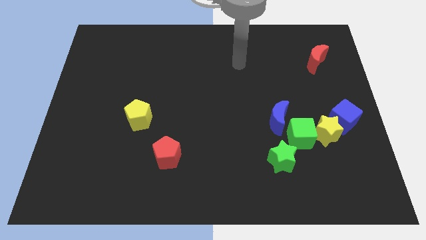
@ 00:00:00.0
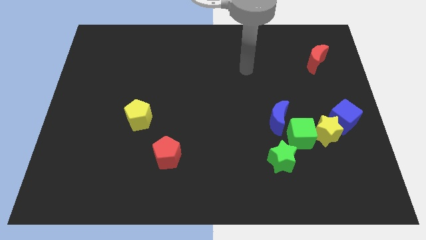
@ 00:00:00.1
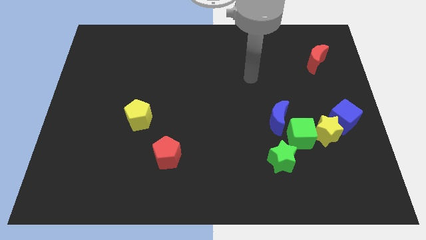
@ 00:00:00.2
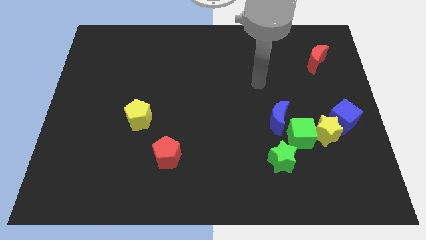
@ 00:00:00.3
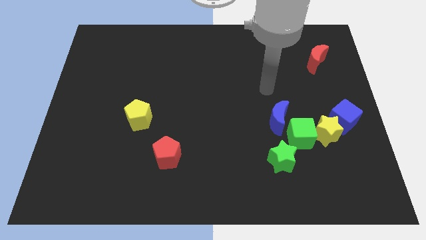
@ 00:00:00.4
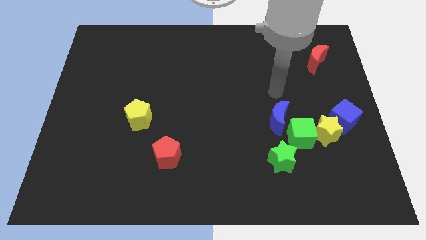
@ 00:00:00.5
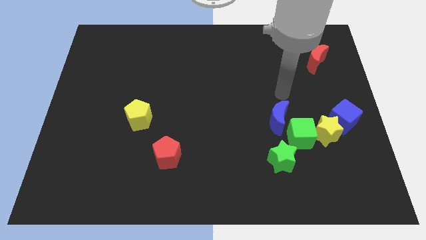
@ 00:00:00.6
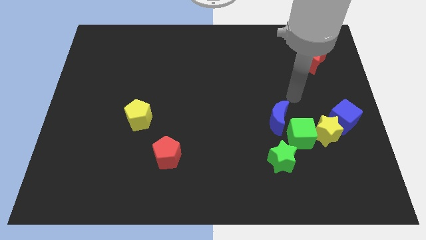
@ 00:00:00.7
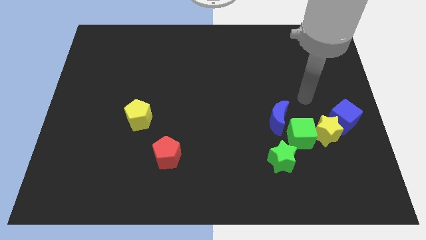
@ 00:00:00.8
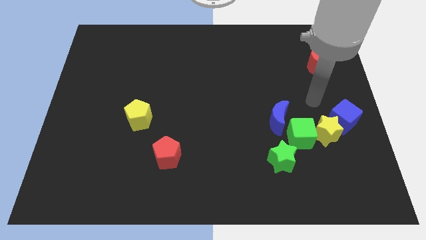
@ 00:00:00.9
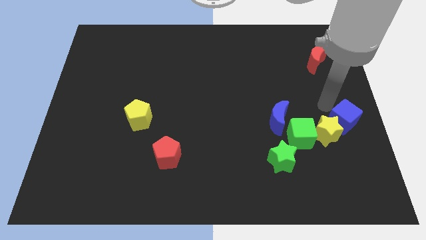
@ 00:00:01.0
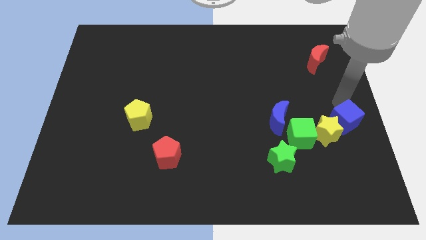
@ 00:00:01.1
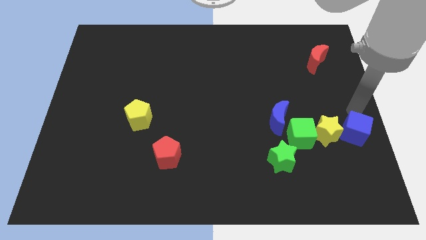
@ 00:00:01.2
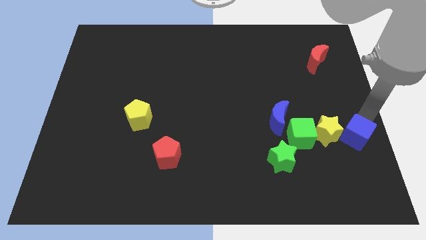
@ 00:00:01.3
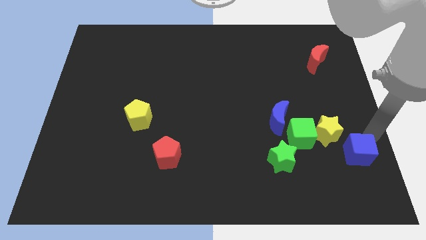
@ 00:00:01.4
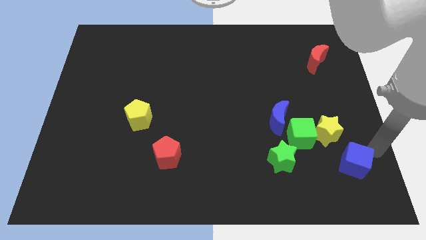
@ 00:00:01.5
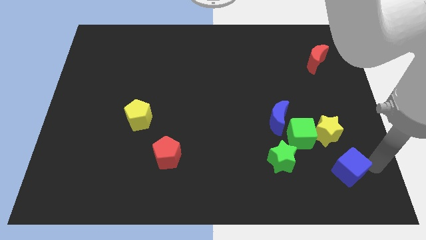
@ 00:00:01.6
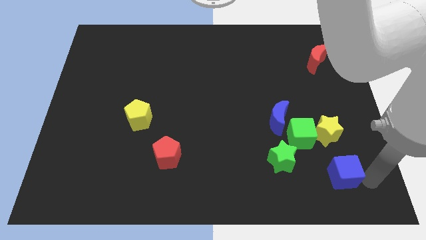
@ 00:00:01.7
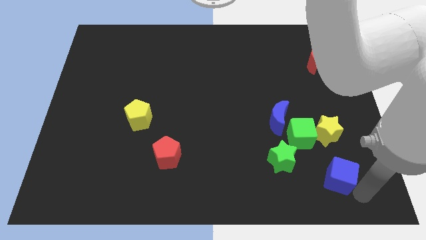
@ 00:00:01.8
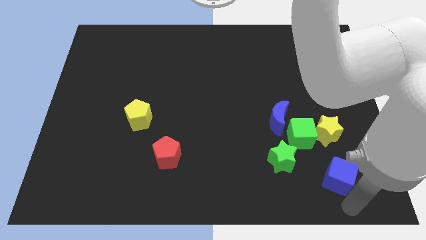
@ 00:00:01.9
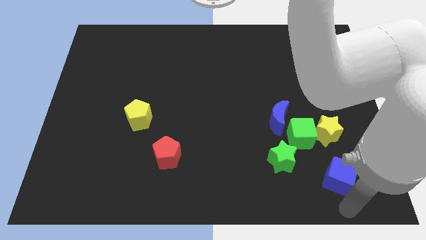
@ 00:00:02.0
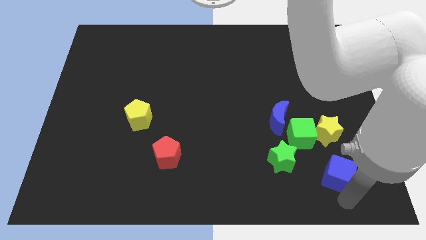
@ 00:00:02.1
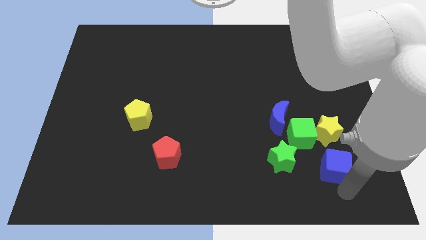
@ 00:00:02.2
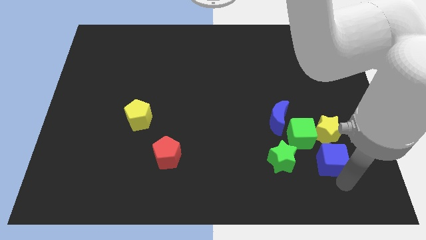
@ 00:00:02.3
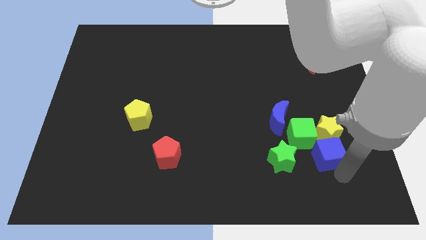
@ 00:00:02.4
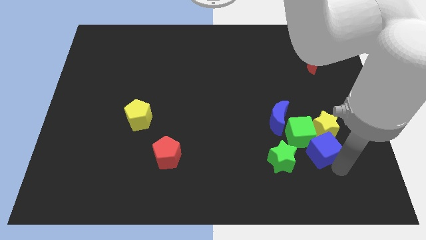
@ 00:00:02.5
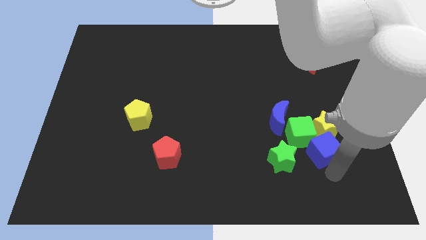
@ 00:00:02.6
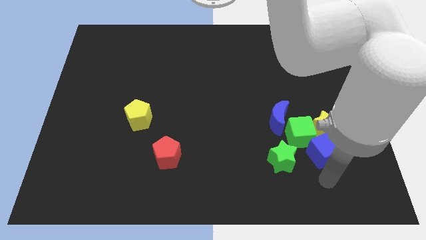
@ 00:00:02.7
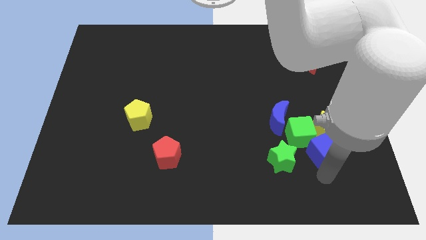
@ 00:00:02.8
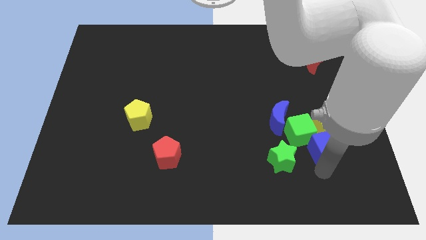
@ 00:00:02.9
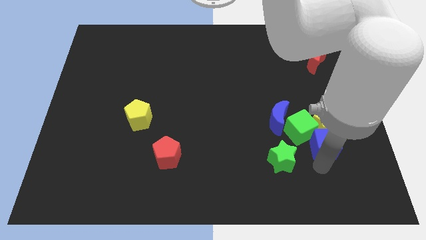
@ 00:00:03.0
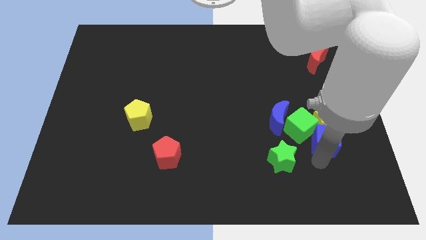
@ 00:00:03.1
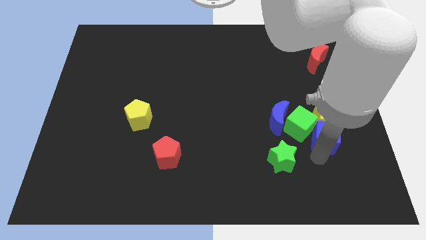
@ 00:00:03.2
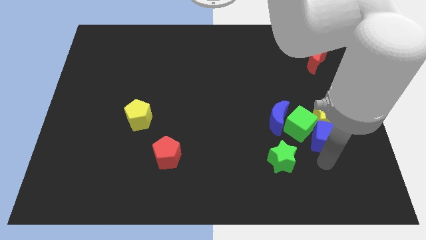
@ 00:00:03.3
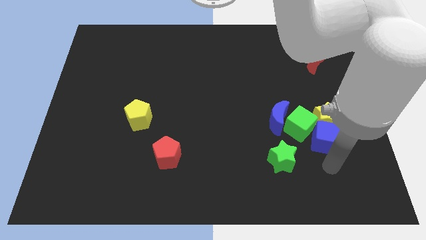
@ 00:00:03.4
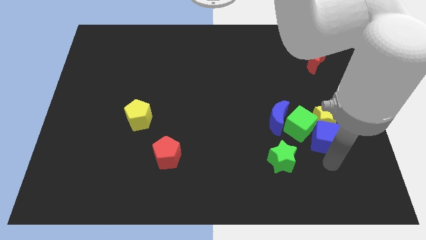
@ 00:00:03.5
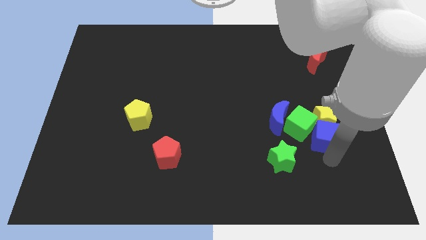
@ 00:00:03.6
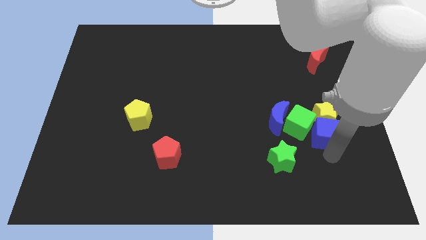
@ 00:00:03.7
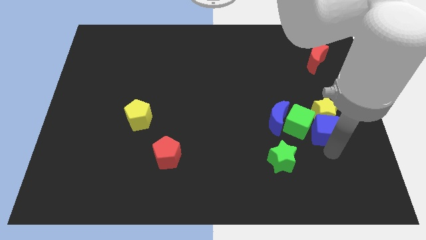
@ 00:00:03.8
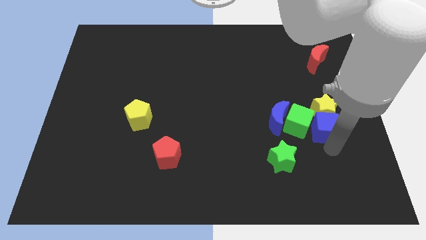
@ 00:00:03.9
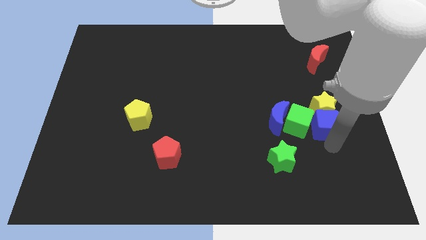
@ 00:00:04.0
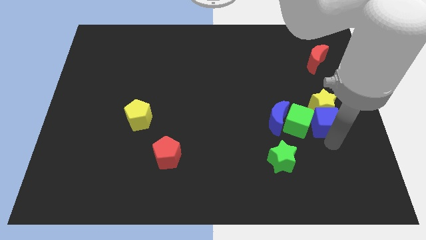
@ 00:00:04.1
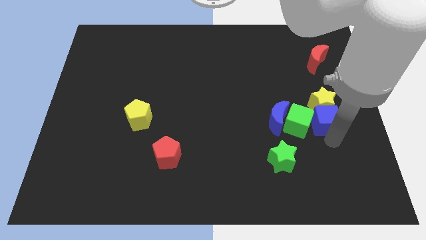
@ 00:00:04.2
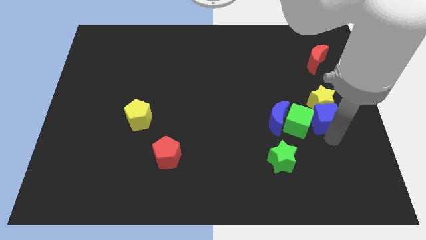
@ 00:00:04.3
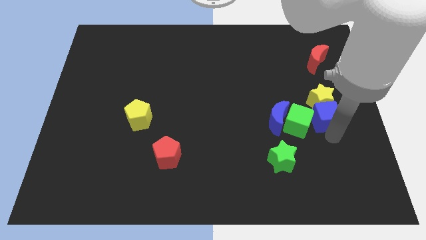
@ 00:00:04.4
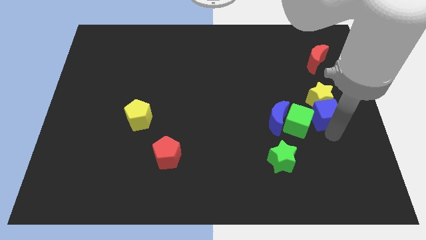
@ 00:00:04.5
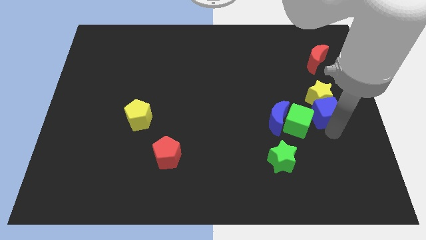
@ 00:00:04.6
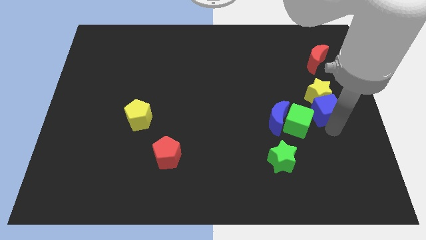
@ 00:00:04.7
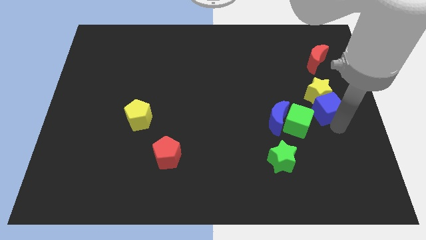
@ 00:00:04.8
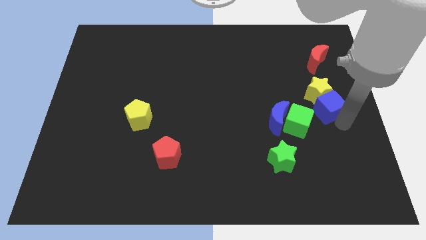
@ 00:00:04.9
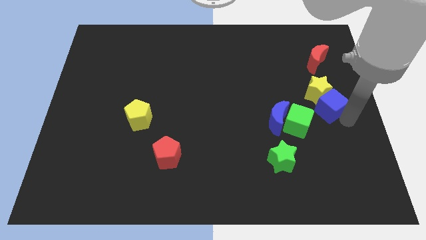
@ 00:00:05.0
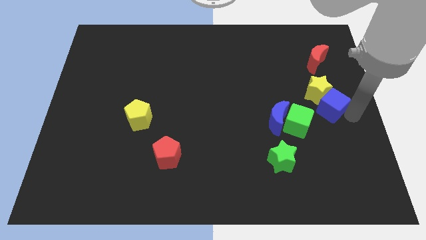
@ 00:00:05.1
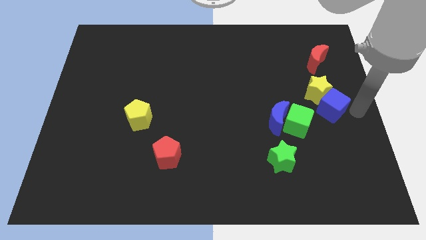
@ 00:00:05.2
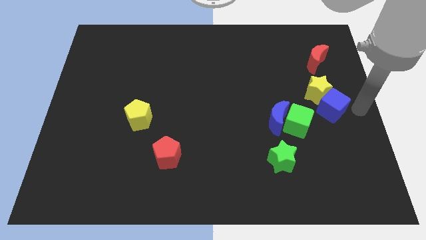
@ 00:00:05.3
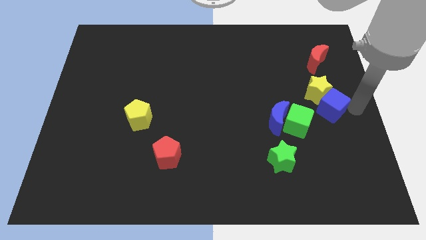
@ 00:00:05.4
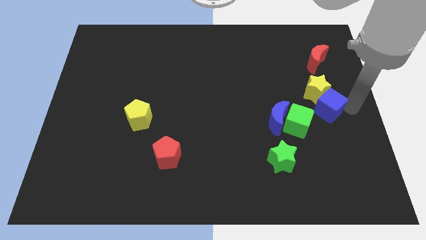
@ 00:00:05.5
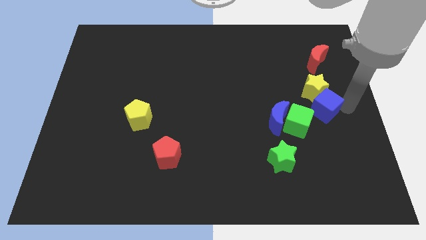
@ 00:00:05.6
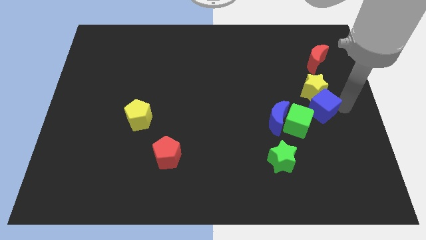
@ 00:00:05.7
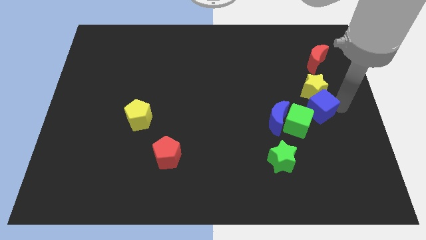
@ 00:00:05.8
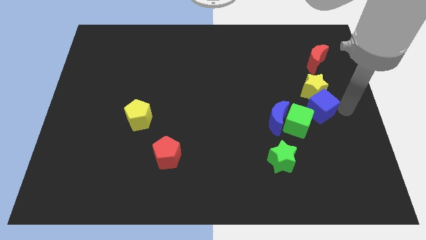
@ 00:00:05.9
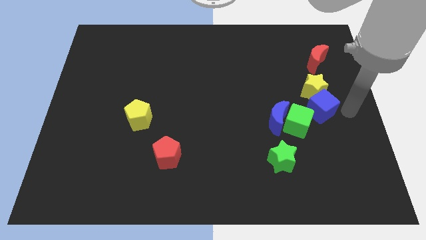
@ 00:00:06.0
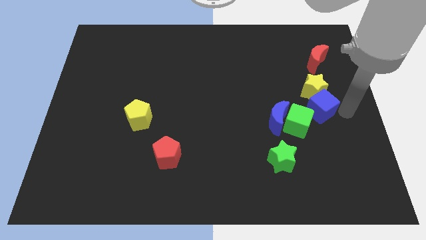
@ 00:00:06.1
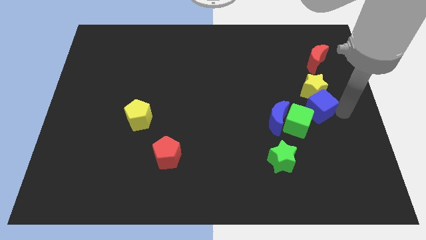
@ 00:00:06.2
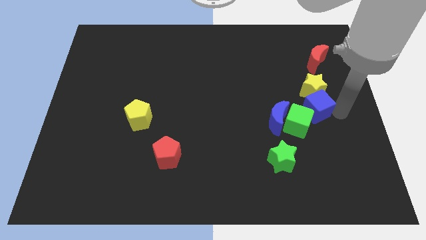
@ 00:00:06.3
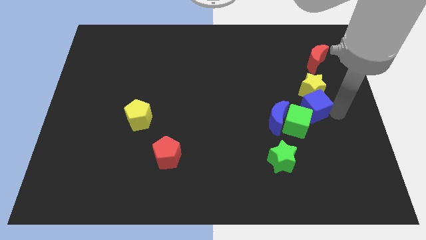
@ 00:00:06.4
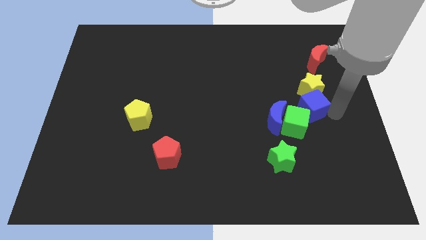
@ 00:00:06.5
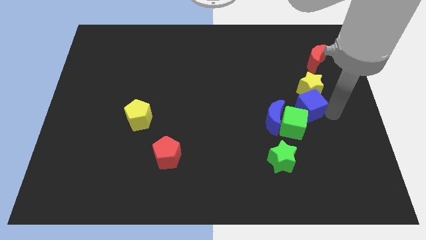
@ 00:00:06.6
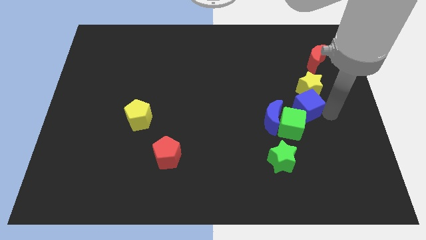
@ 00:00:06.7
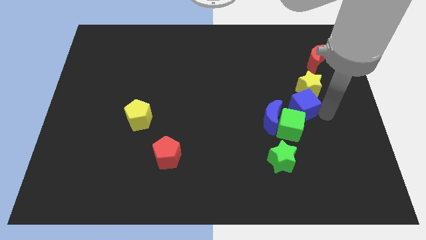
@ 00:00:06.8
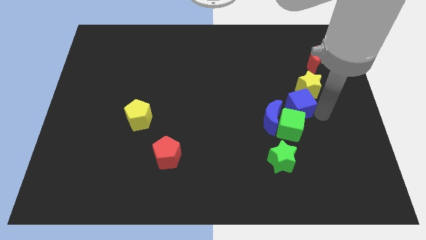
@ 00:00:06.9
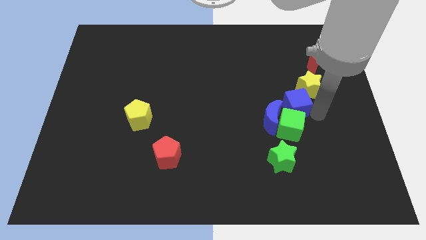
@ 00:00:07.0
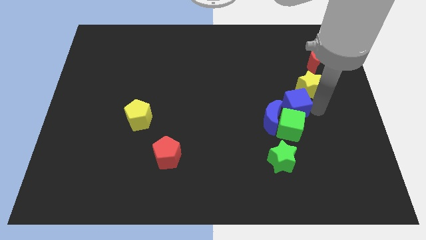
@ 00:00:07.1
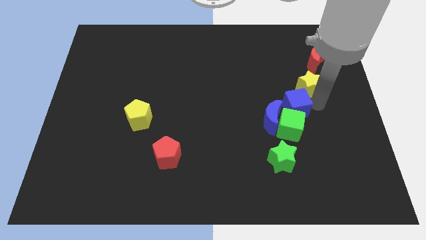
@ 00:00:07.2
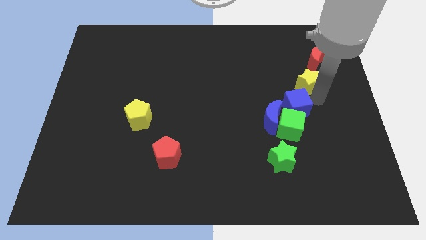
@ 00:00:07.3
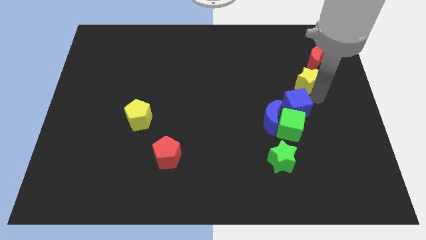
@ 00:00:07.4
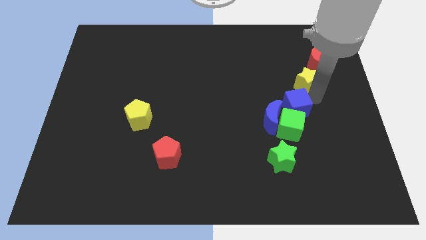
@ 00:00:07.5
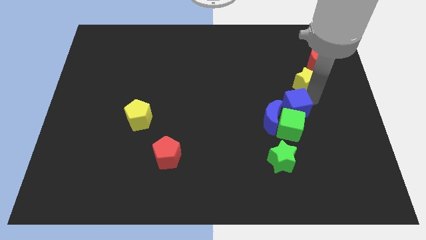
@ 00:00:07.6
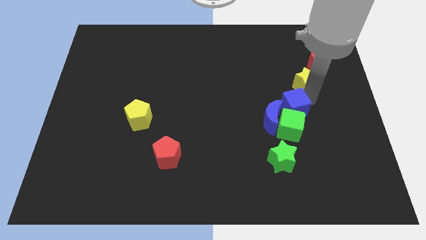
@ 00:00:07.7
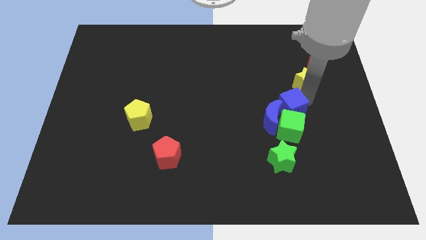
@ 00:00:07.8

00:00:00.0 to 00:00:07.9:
slide the blue cube close to the blue moon
